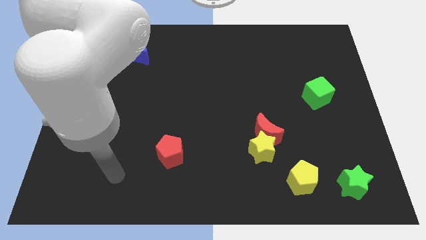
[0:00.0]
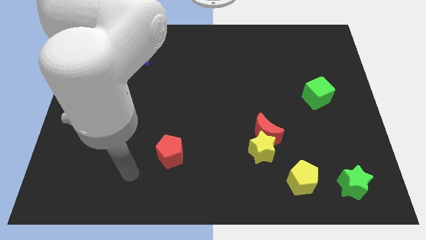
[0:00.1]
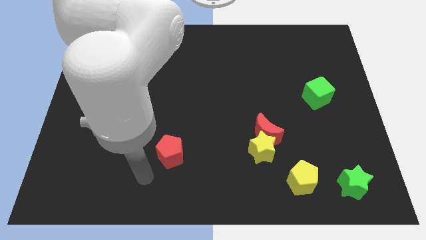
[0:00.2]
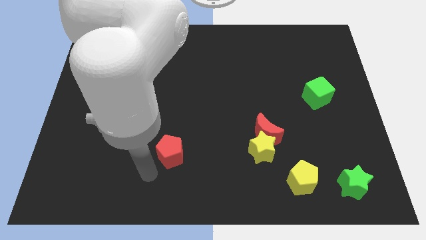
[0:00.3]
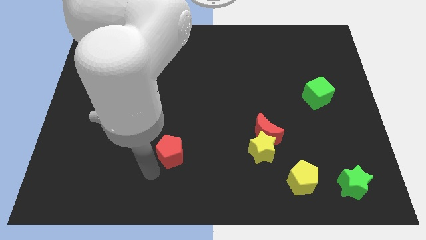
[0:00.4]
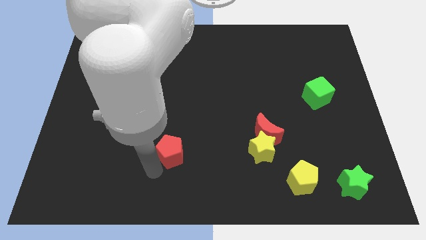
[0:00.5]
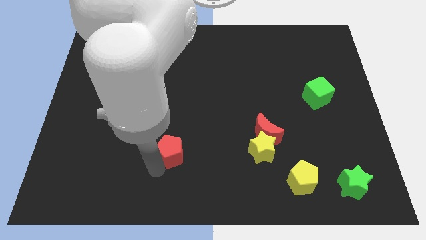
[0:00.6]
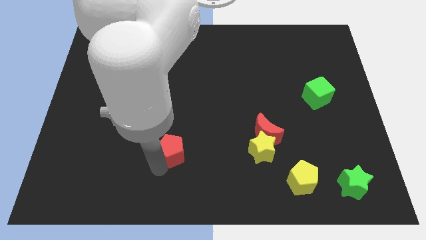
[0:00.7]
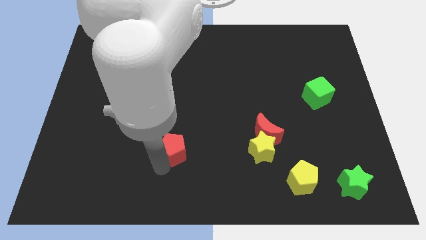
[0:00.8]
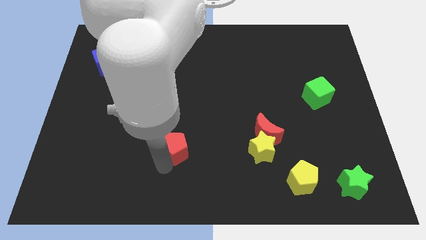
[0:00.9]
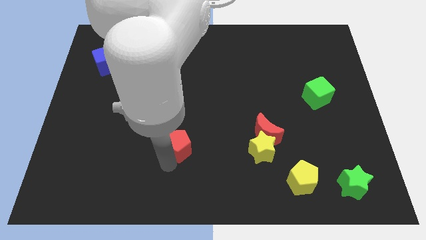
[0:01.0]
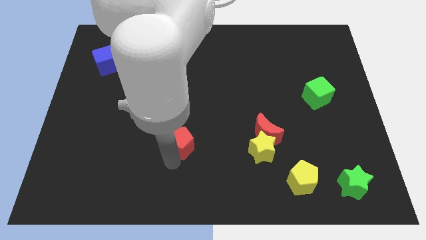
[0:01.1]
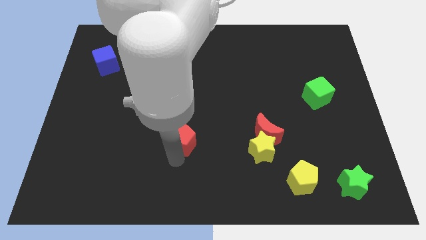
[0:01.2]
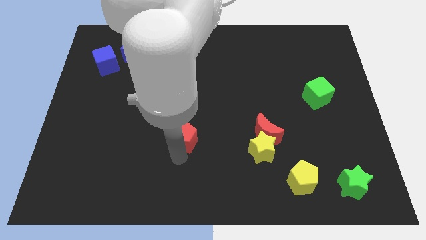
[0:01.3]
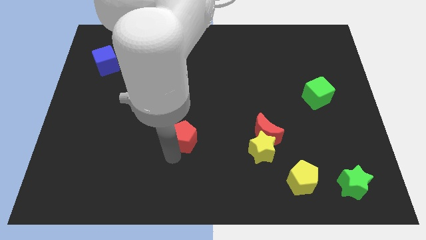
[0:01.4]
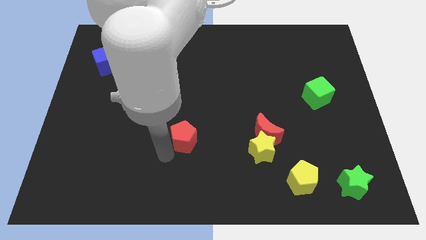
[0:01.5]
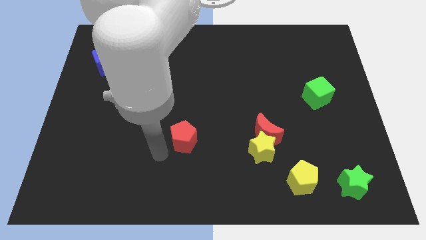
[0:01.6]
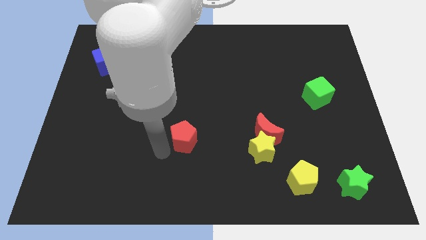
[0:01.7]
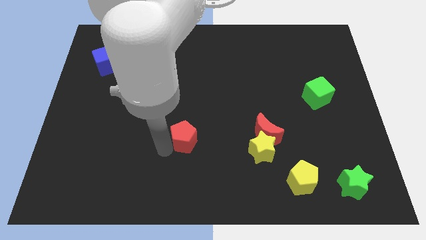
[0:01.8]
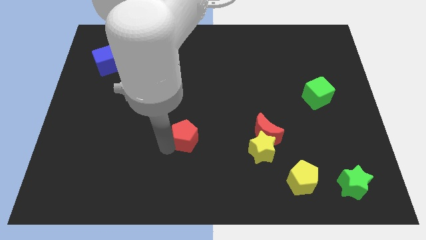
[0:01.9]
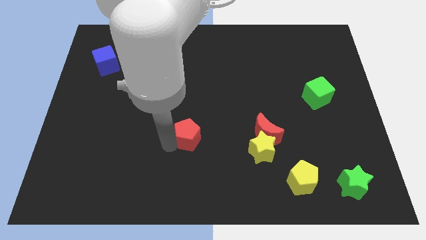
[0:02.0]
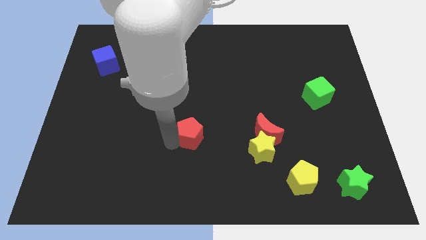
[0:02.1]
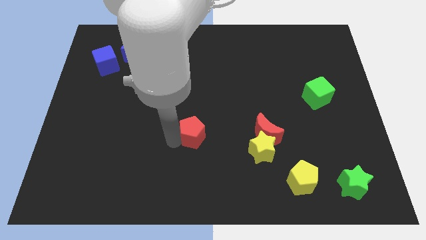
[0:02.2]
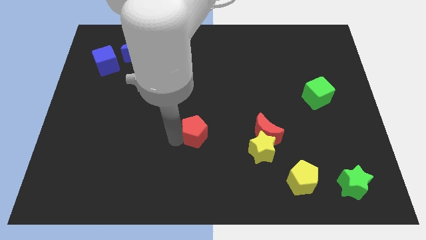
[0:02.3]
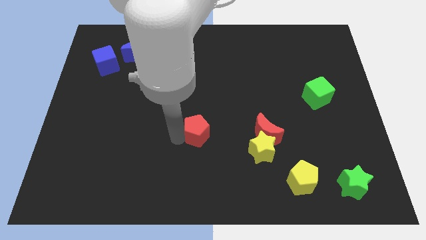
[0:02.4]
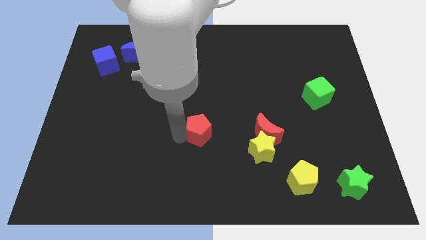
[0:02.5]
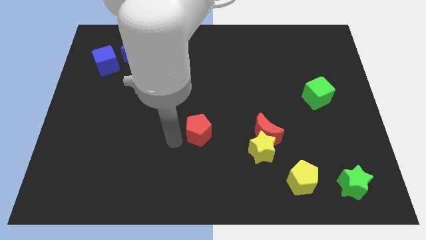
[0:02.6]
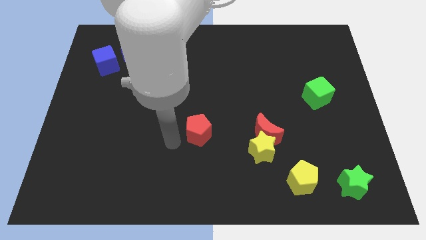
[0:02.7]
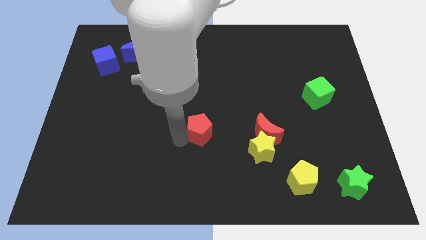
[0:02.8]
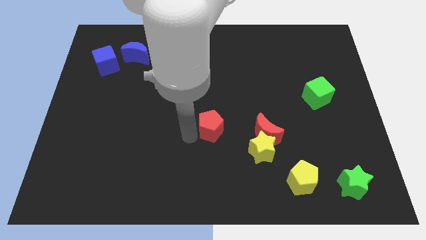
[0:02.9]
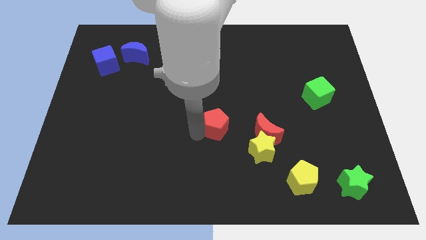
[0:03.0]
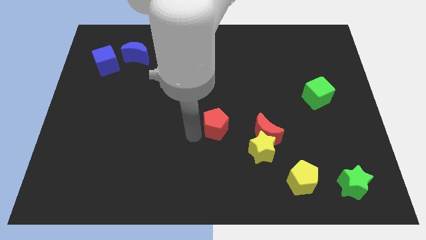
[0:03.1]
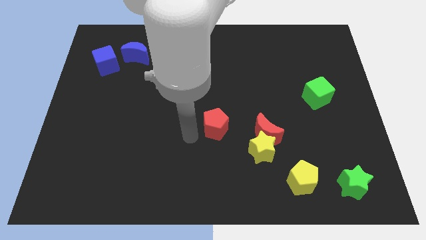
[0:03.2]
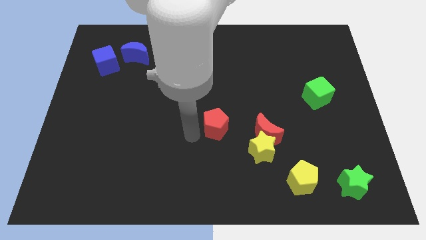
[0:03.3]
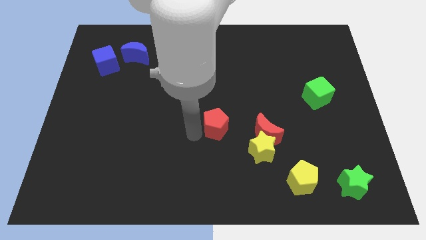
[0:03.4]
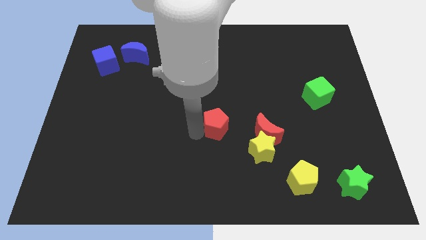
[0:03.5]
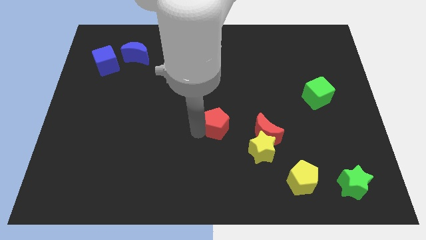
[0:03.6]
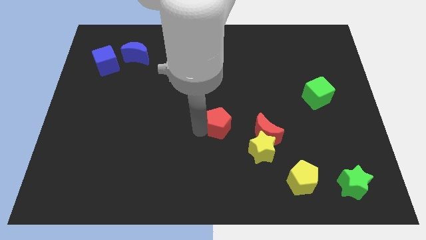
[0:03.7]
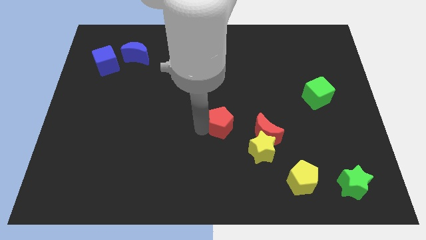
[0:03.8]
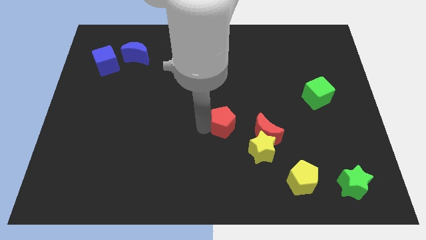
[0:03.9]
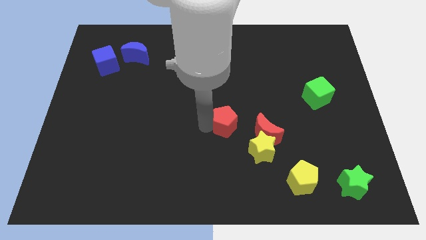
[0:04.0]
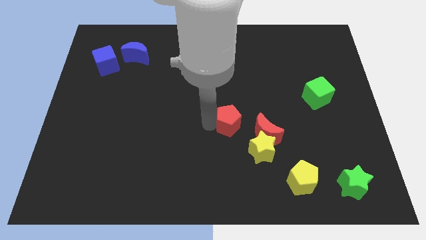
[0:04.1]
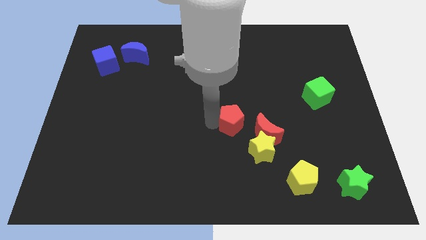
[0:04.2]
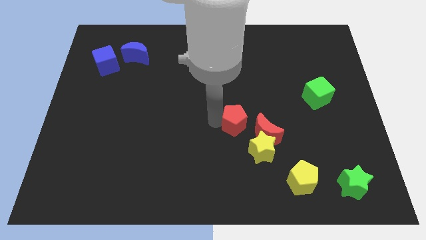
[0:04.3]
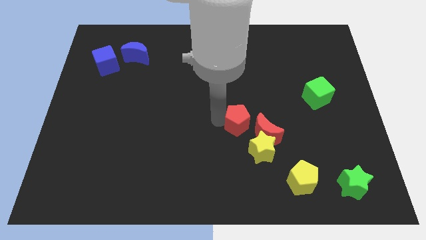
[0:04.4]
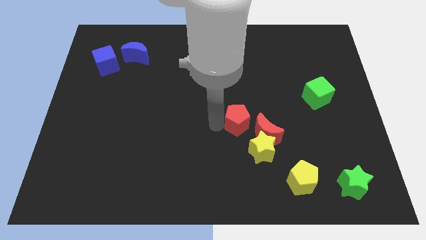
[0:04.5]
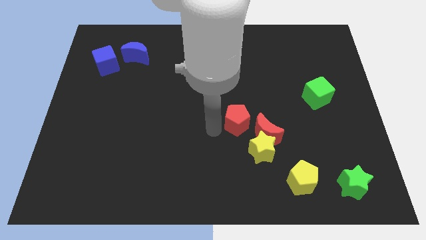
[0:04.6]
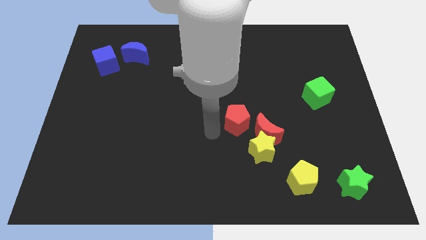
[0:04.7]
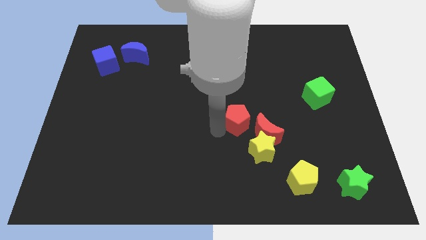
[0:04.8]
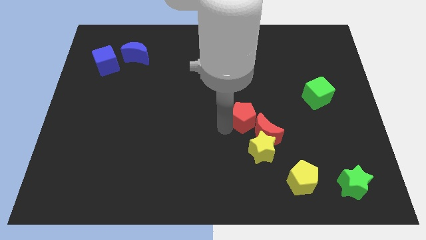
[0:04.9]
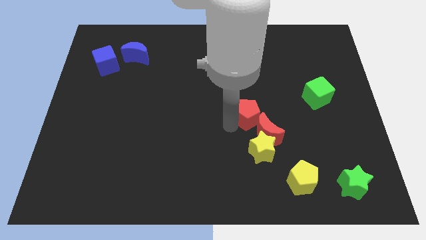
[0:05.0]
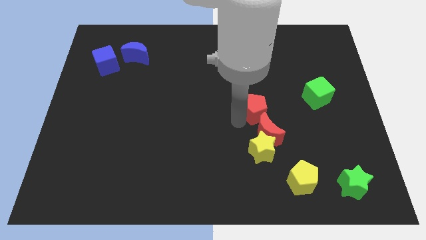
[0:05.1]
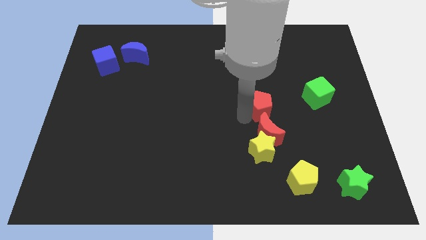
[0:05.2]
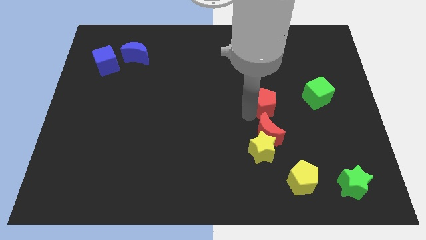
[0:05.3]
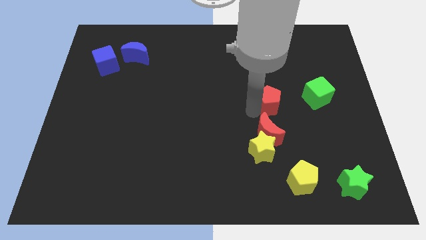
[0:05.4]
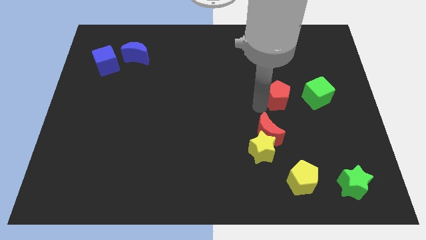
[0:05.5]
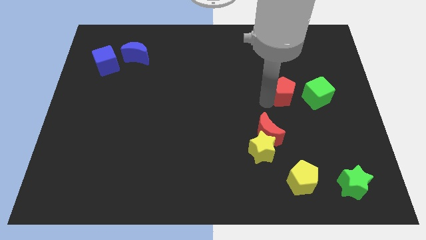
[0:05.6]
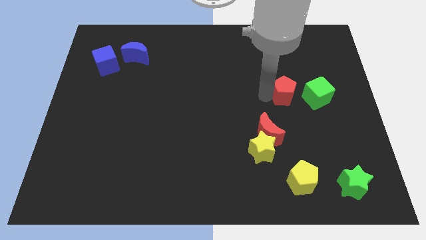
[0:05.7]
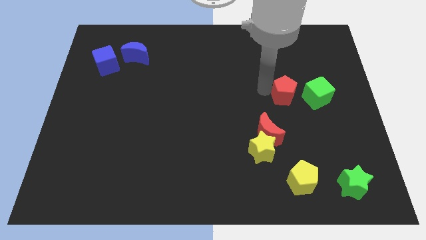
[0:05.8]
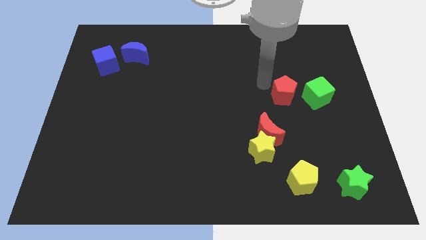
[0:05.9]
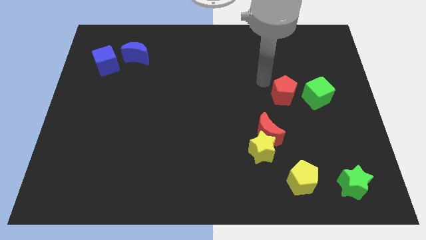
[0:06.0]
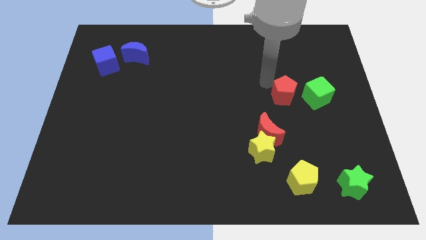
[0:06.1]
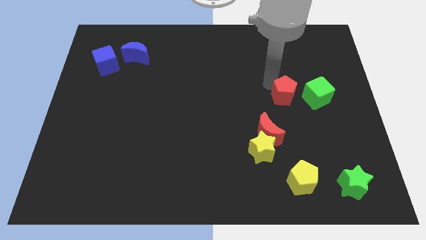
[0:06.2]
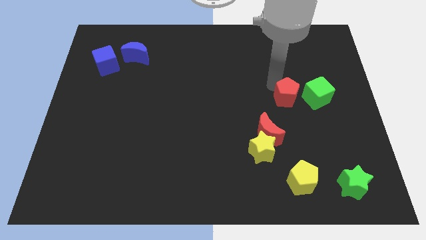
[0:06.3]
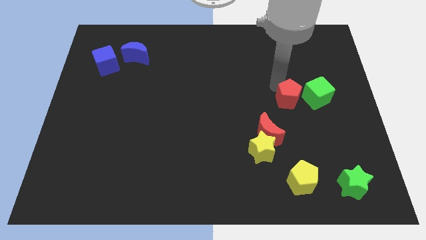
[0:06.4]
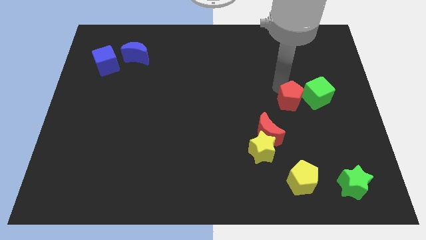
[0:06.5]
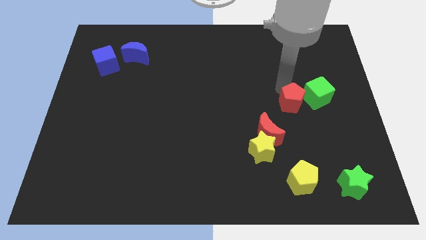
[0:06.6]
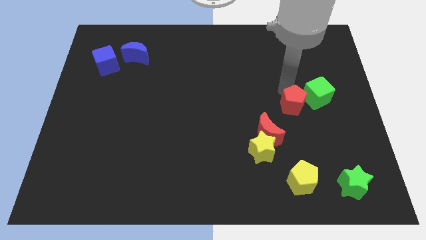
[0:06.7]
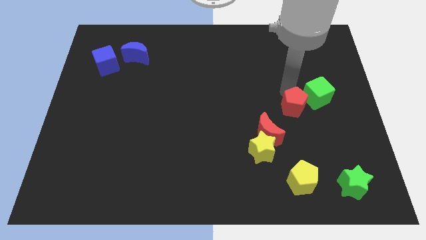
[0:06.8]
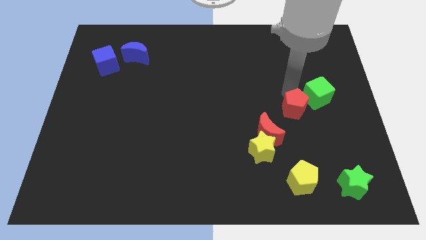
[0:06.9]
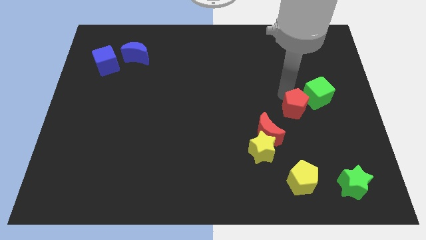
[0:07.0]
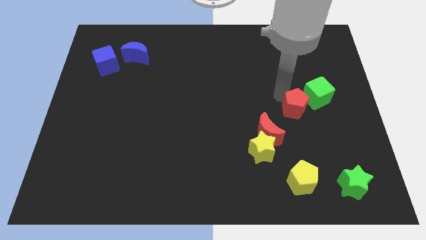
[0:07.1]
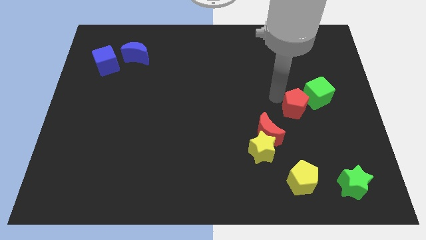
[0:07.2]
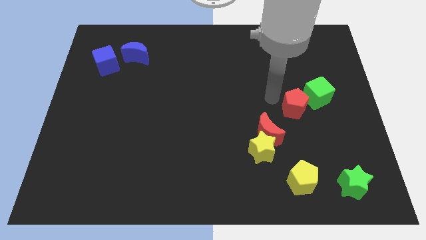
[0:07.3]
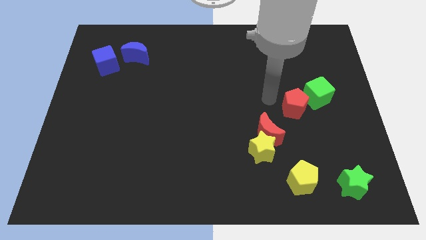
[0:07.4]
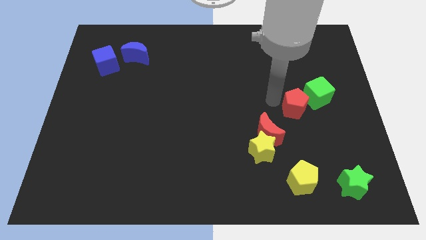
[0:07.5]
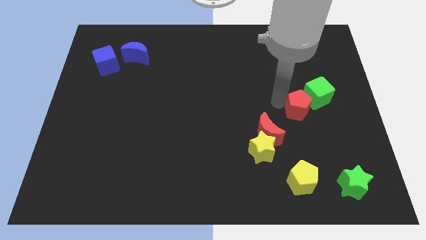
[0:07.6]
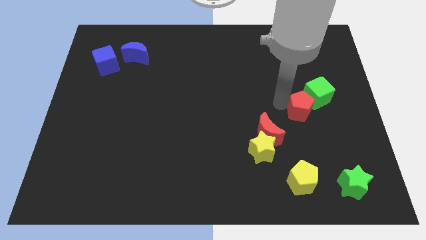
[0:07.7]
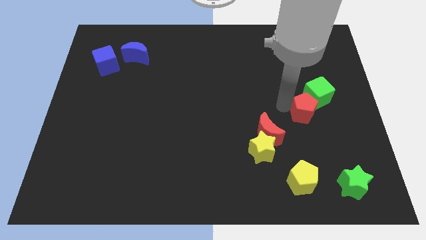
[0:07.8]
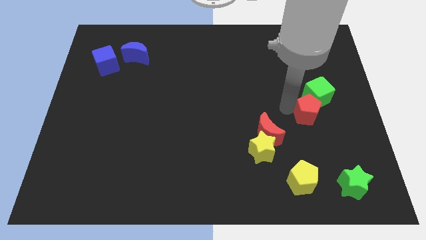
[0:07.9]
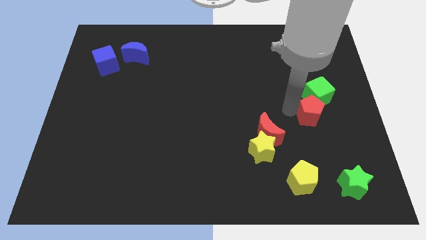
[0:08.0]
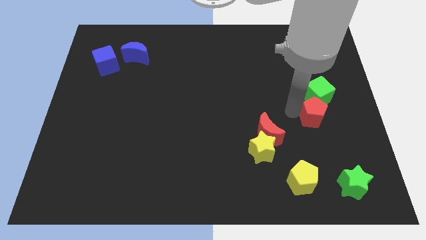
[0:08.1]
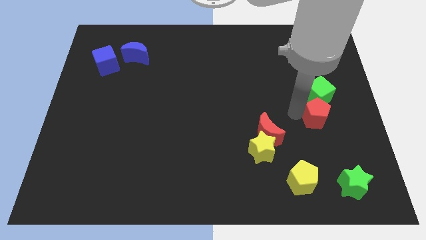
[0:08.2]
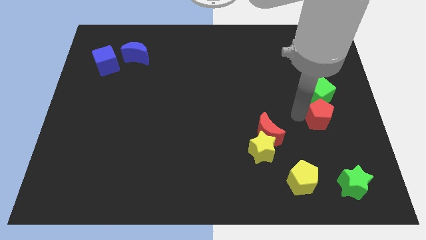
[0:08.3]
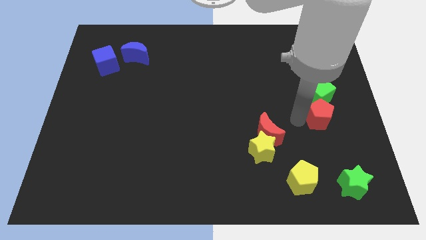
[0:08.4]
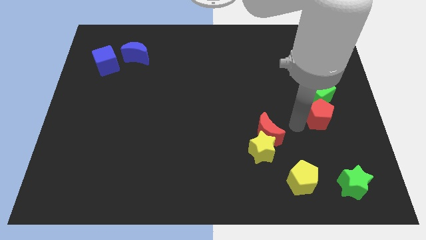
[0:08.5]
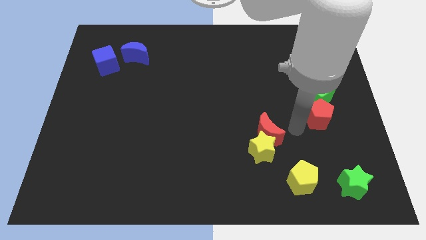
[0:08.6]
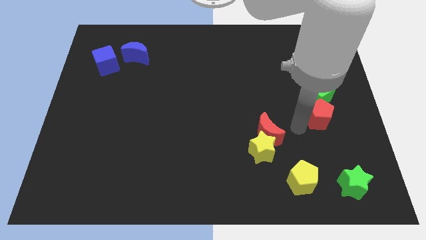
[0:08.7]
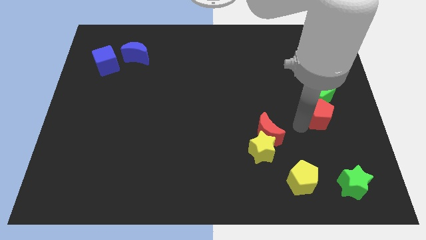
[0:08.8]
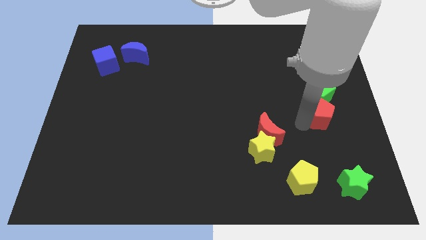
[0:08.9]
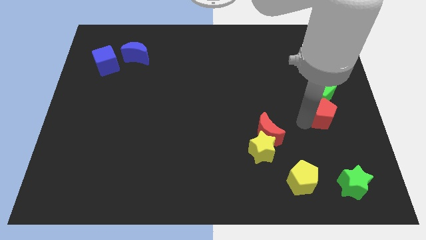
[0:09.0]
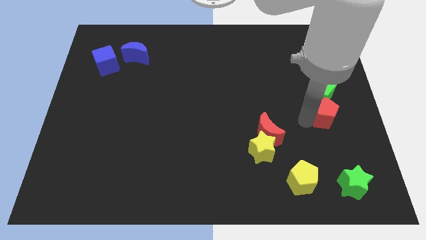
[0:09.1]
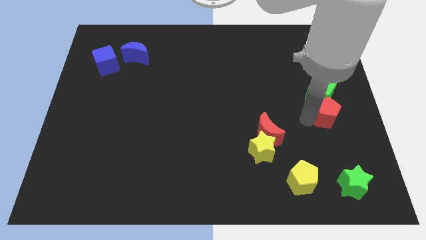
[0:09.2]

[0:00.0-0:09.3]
push the red pentagon to the right side of the board
